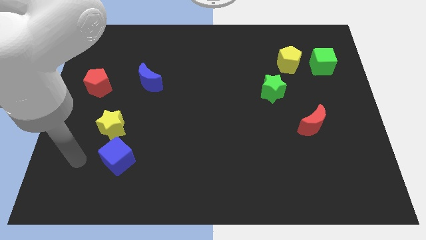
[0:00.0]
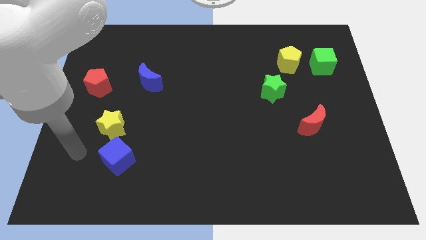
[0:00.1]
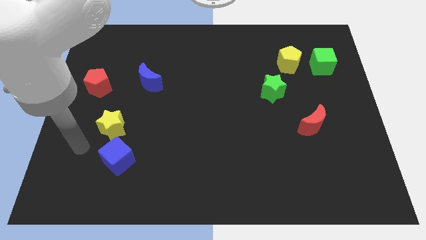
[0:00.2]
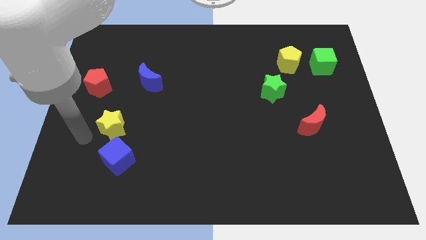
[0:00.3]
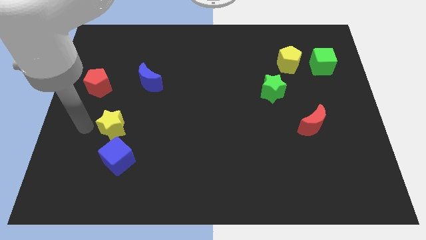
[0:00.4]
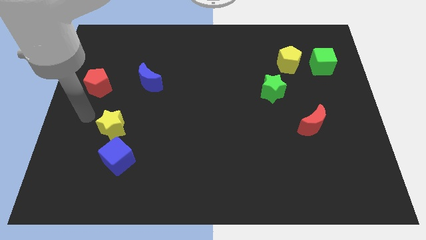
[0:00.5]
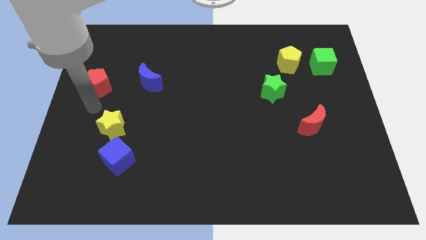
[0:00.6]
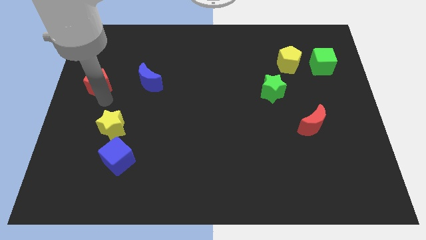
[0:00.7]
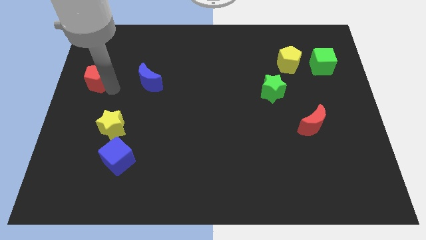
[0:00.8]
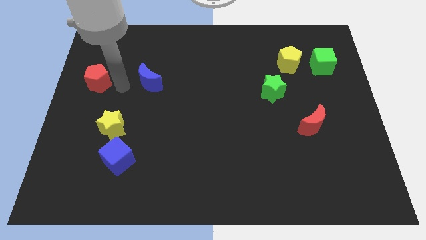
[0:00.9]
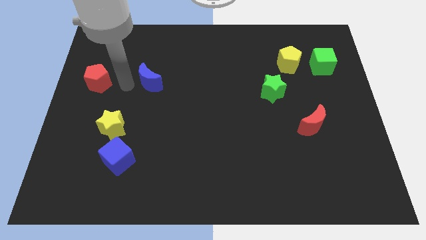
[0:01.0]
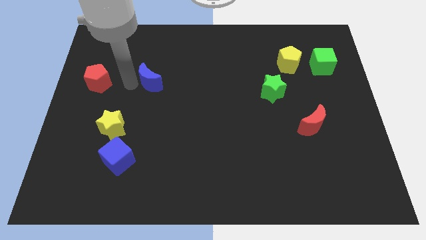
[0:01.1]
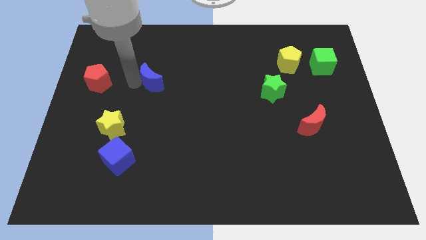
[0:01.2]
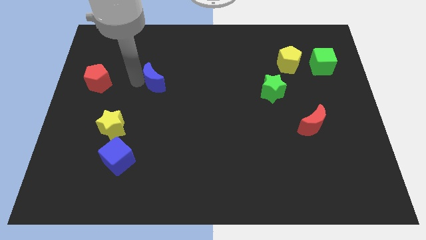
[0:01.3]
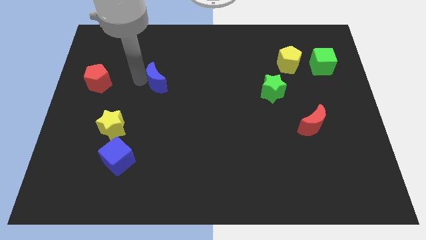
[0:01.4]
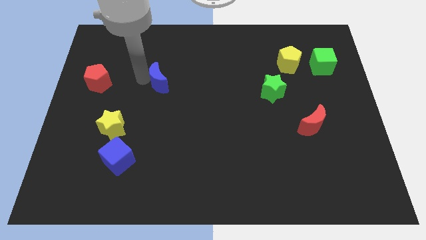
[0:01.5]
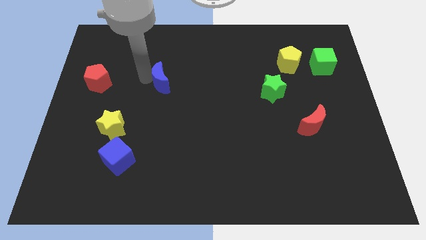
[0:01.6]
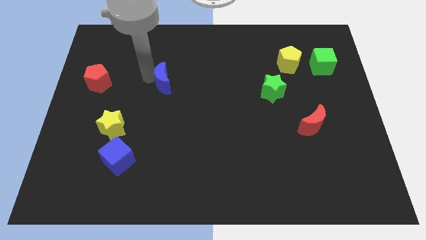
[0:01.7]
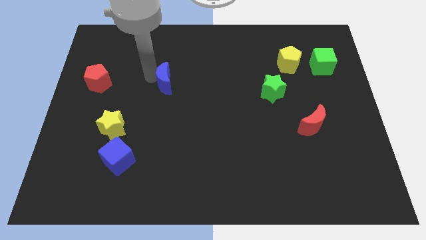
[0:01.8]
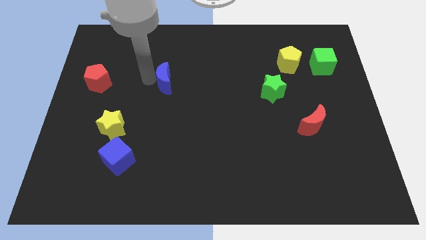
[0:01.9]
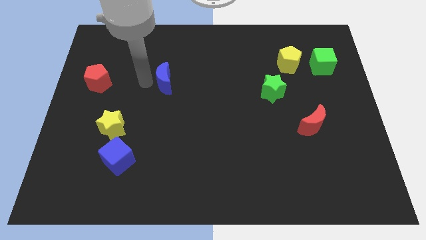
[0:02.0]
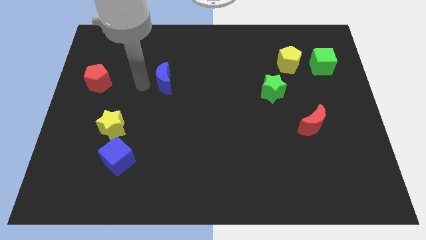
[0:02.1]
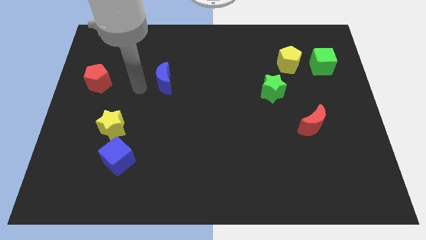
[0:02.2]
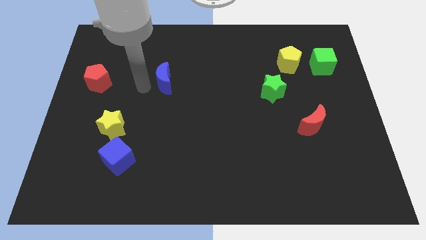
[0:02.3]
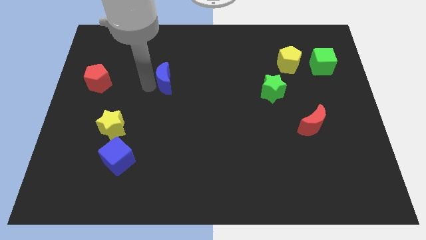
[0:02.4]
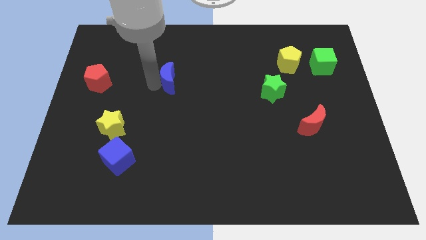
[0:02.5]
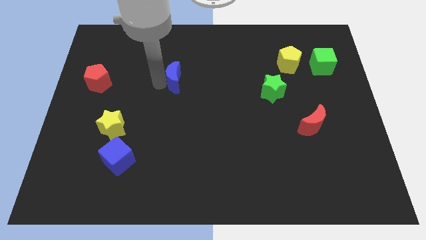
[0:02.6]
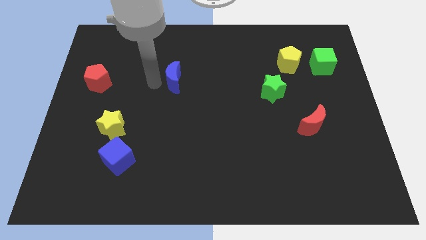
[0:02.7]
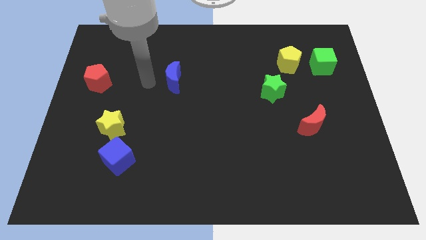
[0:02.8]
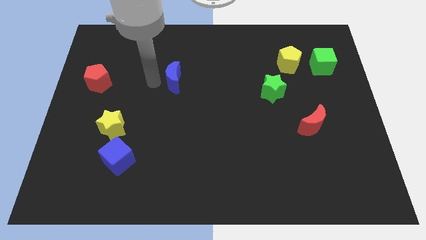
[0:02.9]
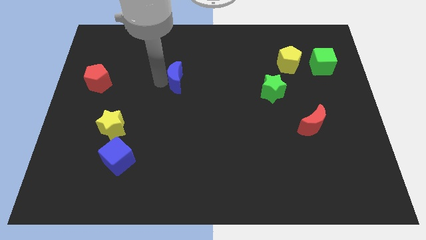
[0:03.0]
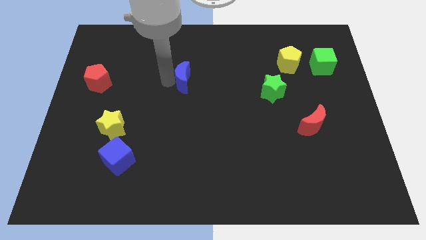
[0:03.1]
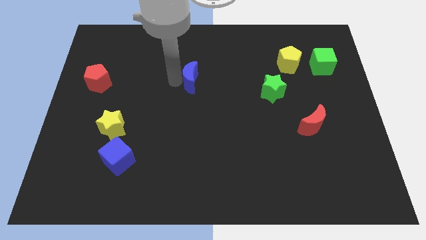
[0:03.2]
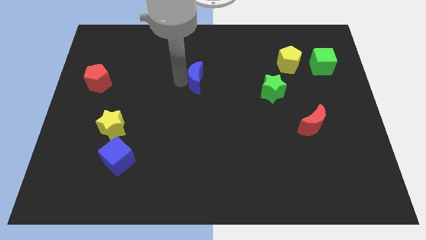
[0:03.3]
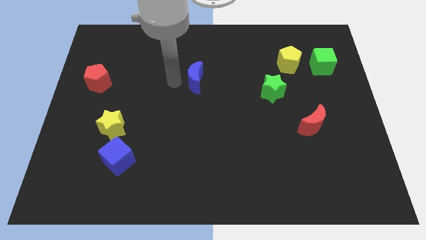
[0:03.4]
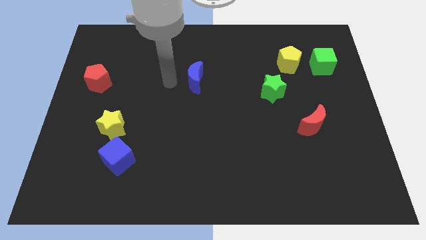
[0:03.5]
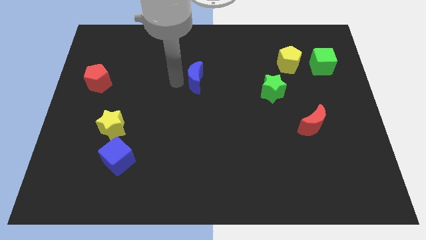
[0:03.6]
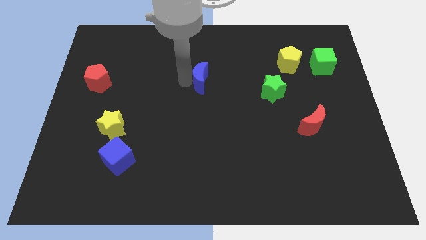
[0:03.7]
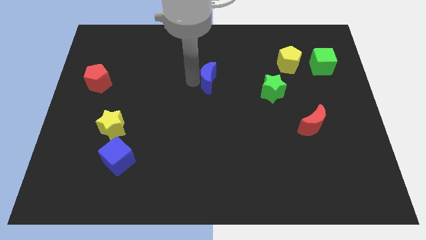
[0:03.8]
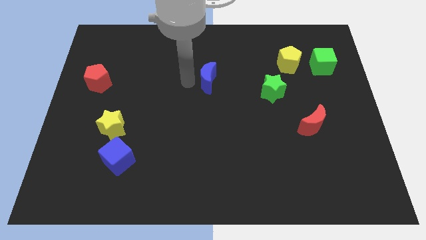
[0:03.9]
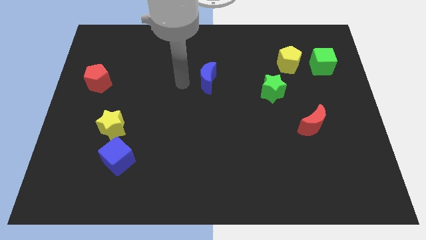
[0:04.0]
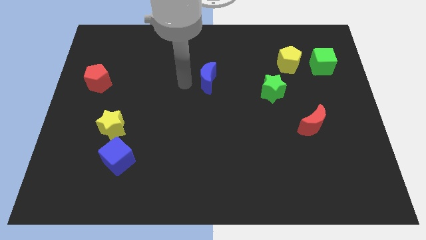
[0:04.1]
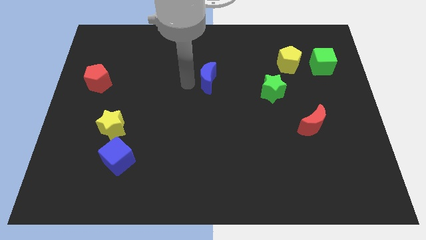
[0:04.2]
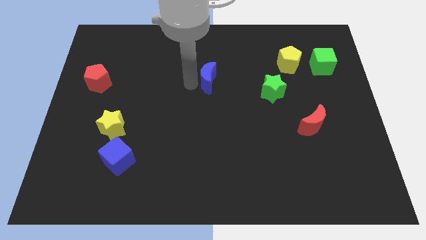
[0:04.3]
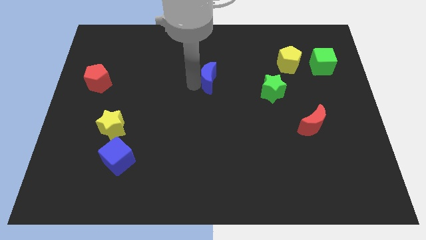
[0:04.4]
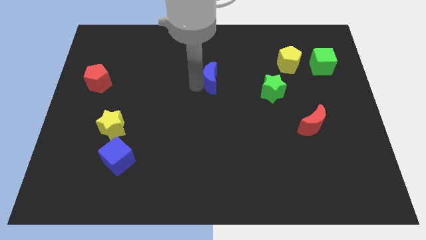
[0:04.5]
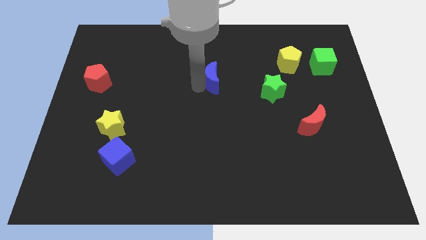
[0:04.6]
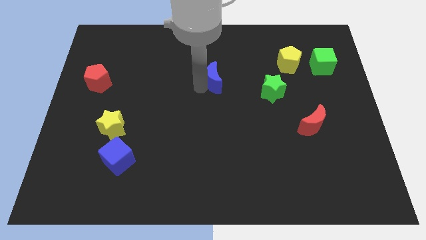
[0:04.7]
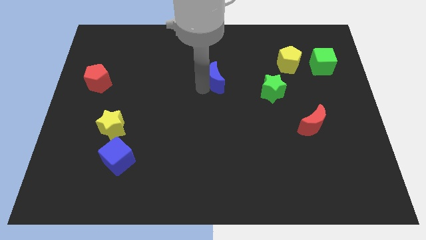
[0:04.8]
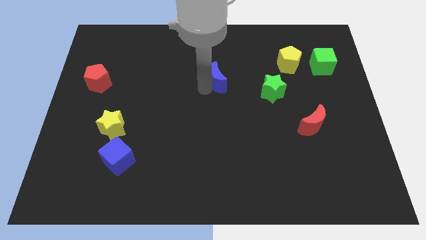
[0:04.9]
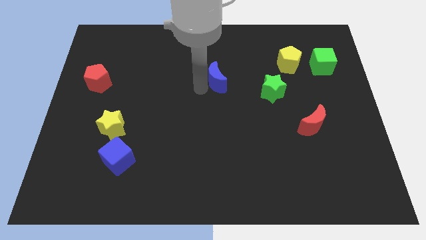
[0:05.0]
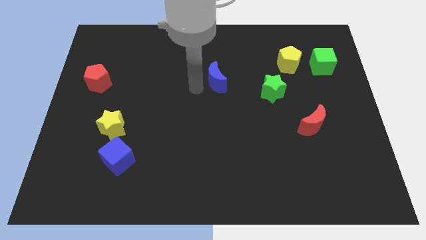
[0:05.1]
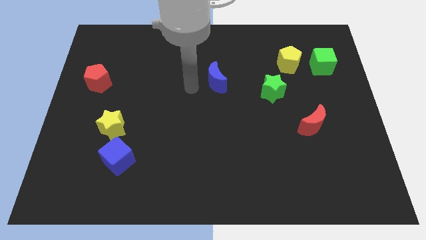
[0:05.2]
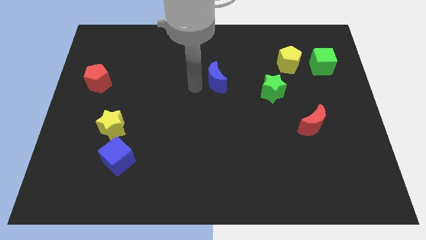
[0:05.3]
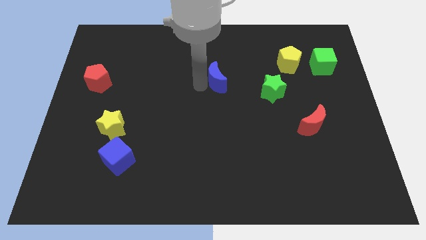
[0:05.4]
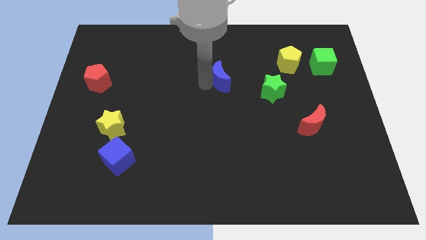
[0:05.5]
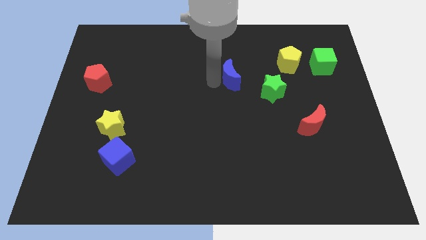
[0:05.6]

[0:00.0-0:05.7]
push the blue moon diagonally up and to the left of the green star

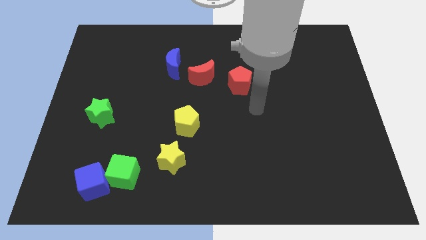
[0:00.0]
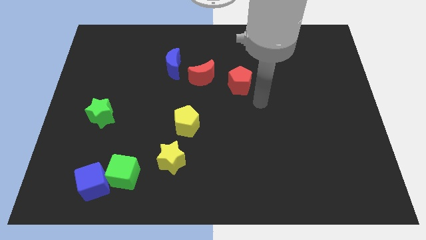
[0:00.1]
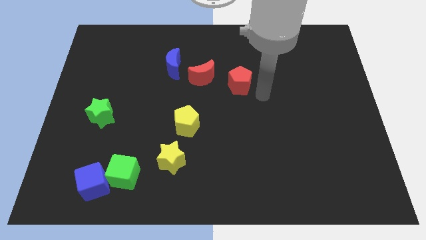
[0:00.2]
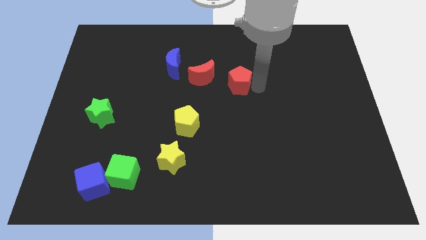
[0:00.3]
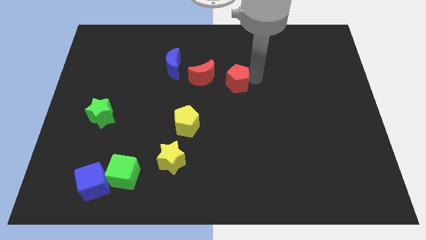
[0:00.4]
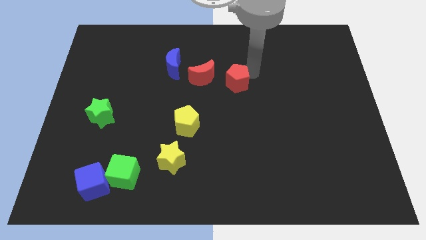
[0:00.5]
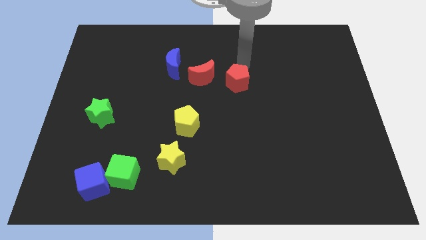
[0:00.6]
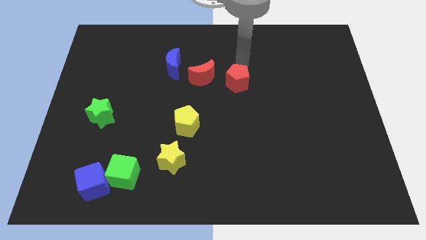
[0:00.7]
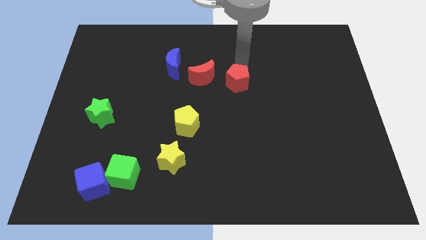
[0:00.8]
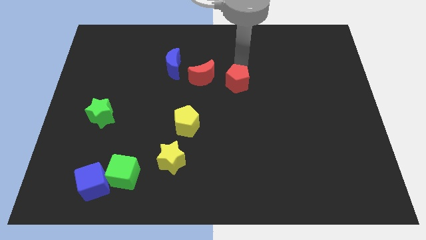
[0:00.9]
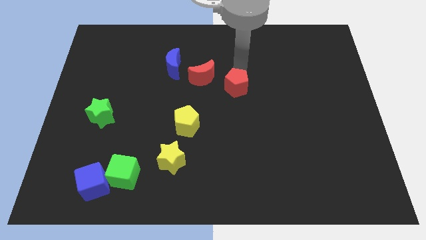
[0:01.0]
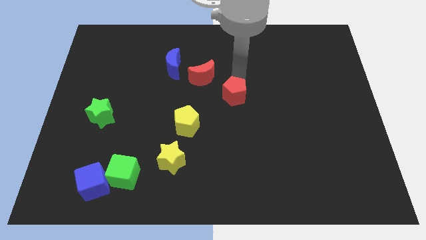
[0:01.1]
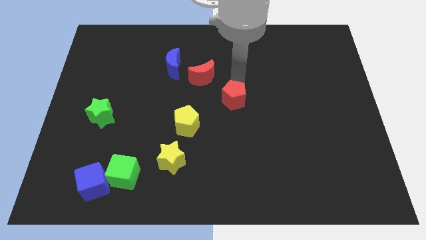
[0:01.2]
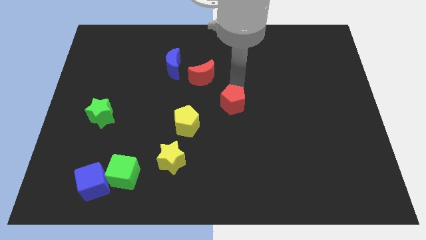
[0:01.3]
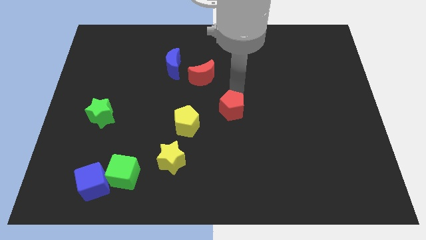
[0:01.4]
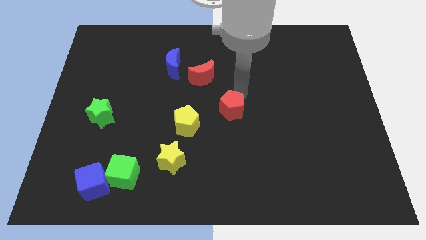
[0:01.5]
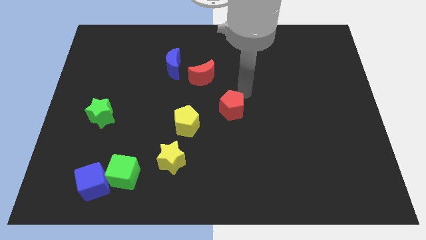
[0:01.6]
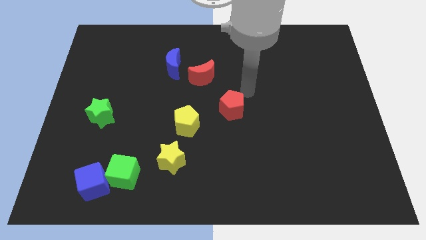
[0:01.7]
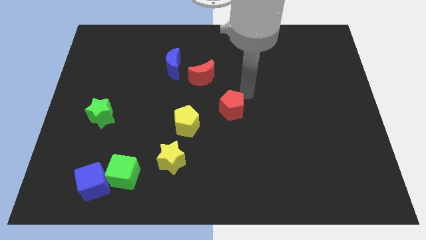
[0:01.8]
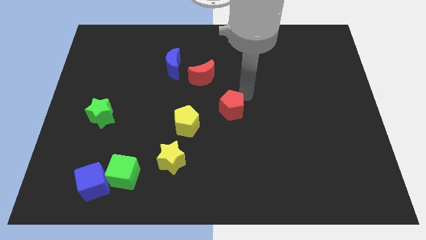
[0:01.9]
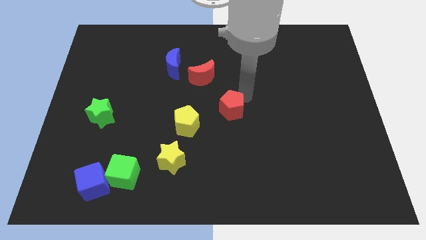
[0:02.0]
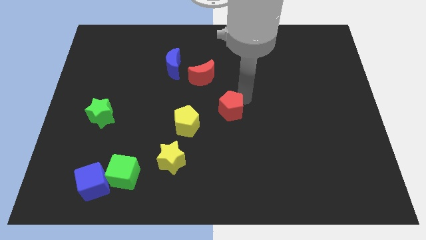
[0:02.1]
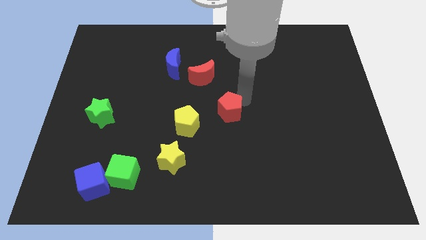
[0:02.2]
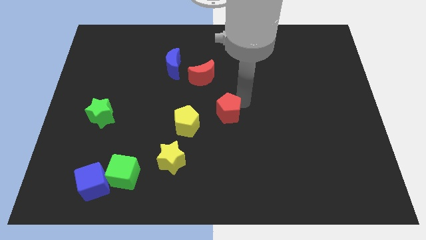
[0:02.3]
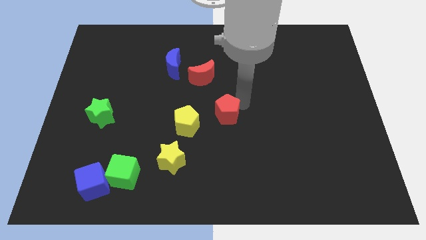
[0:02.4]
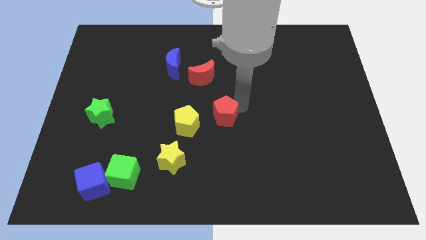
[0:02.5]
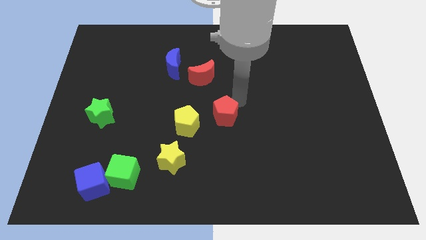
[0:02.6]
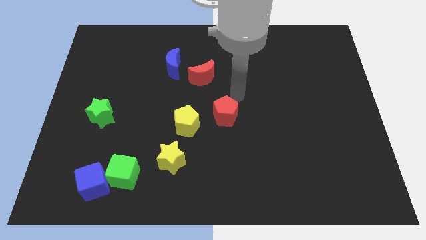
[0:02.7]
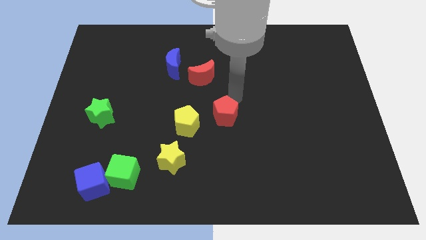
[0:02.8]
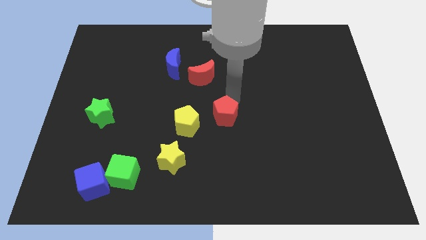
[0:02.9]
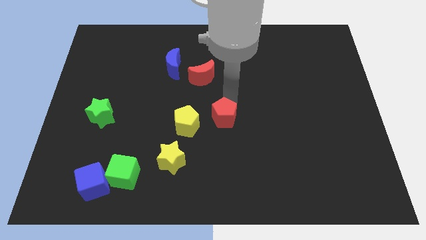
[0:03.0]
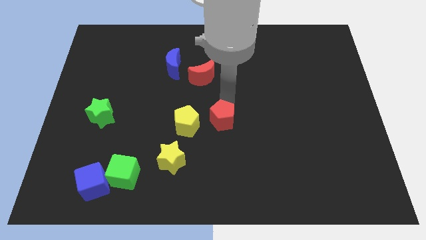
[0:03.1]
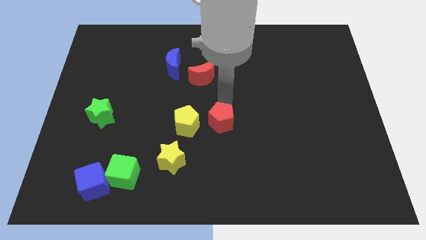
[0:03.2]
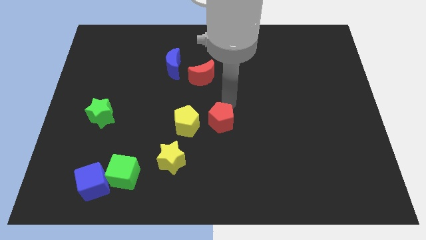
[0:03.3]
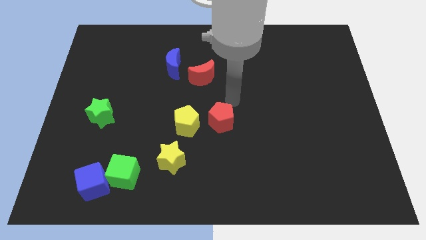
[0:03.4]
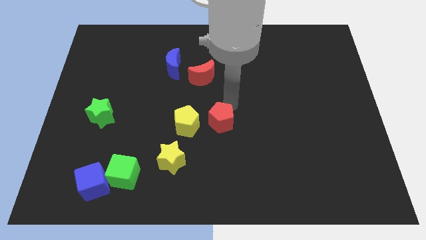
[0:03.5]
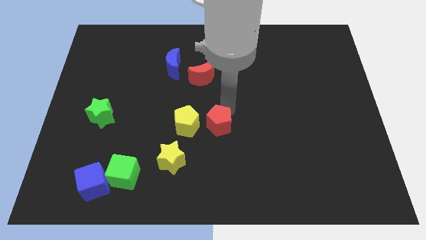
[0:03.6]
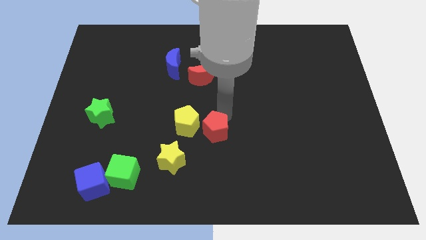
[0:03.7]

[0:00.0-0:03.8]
put the red pentagon to the bottom right side of the yellow pentagon
